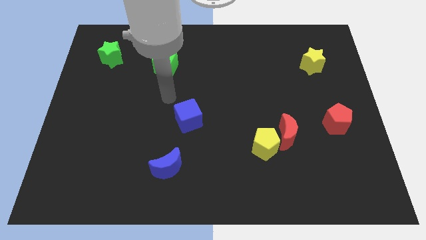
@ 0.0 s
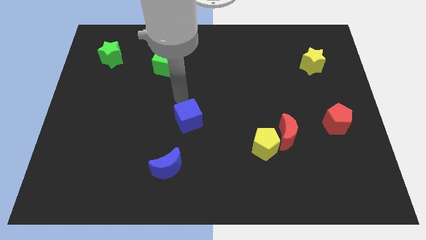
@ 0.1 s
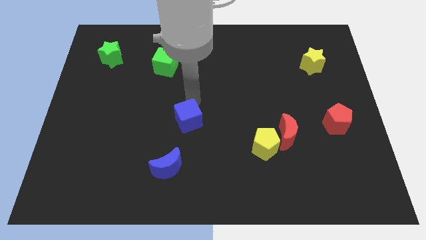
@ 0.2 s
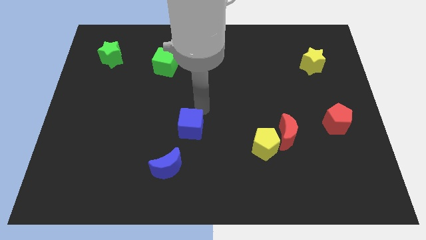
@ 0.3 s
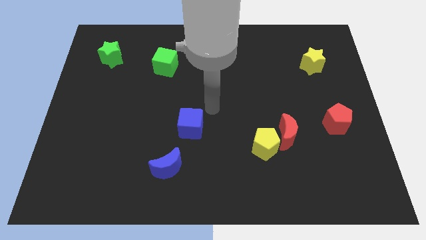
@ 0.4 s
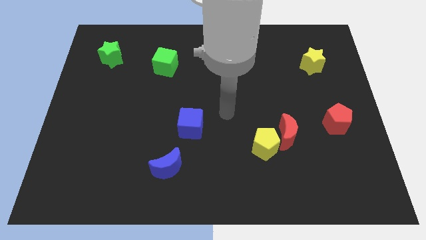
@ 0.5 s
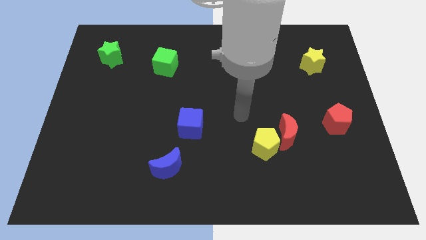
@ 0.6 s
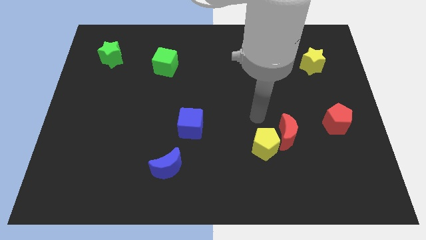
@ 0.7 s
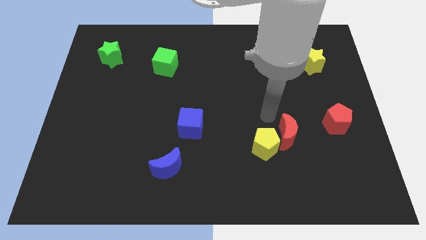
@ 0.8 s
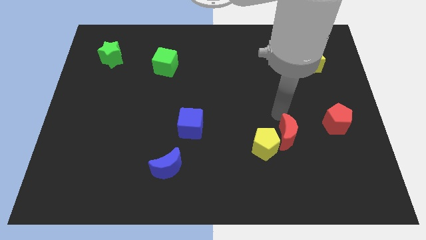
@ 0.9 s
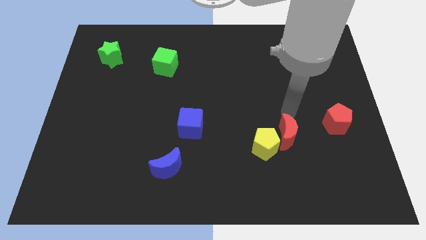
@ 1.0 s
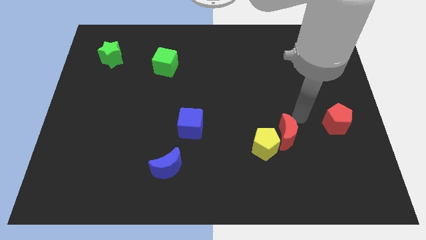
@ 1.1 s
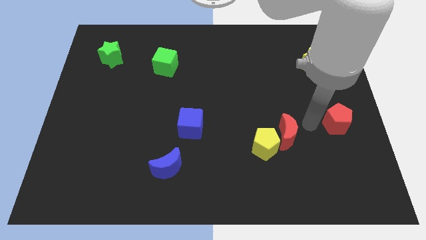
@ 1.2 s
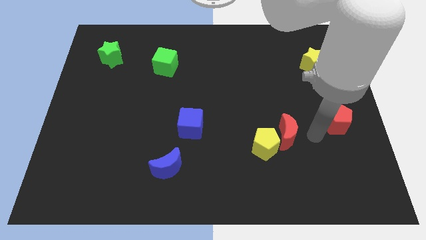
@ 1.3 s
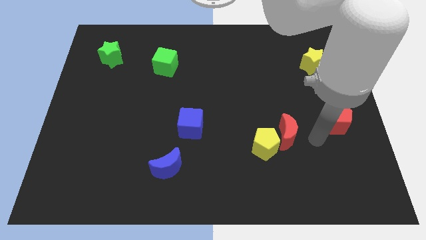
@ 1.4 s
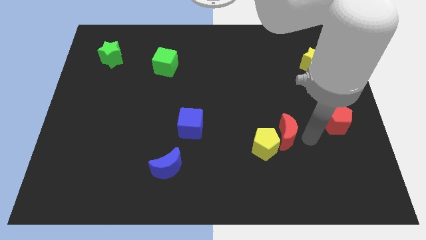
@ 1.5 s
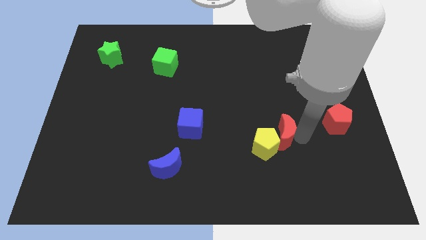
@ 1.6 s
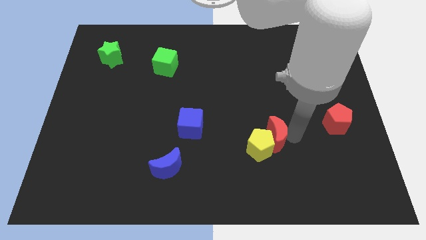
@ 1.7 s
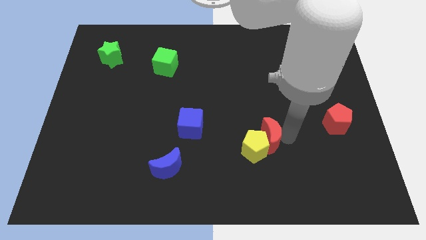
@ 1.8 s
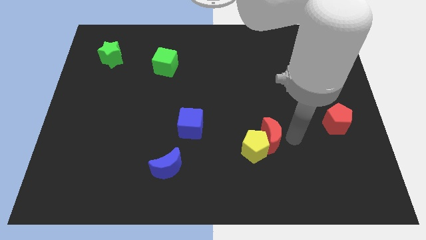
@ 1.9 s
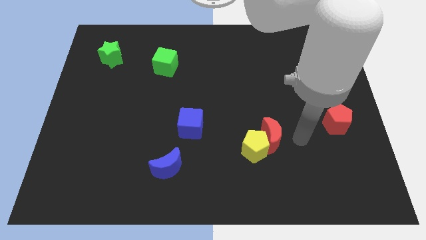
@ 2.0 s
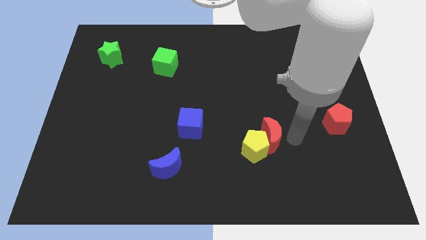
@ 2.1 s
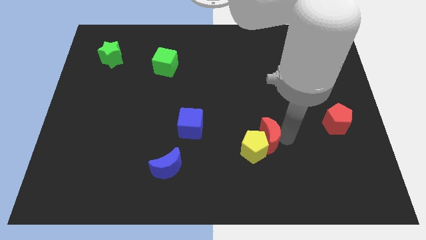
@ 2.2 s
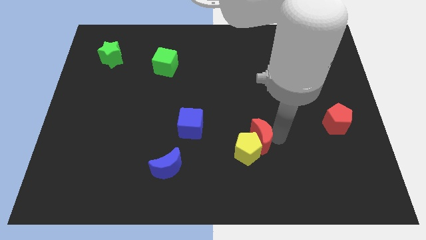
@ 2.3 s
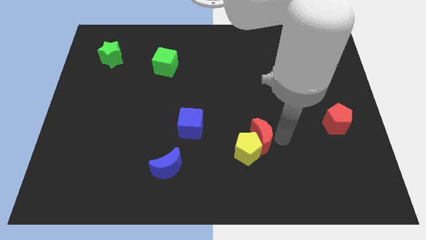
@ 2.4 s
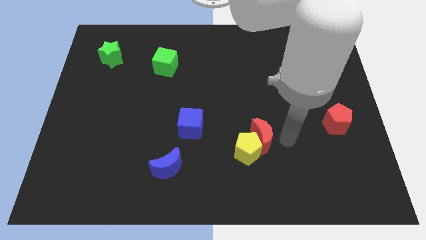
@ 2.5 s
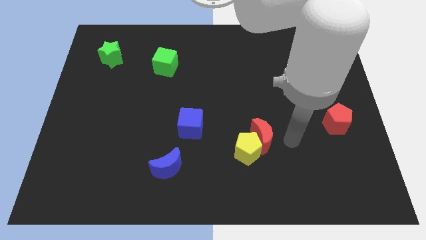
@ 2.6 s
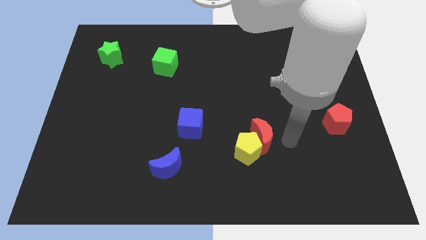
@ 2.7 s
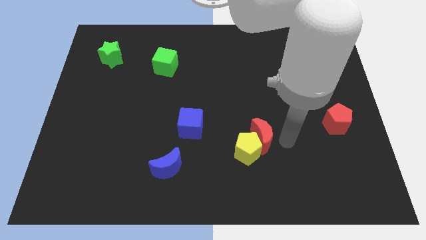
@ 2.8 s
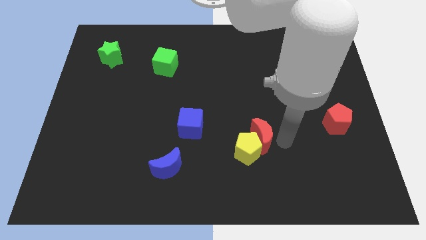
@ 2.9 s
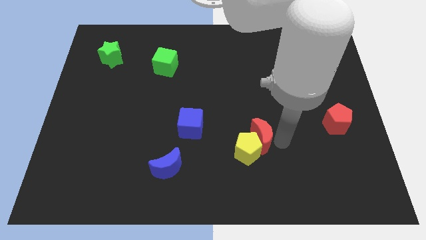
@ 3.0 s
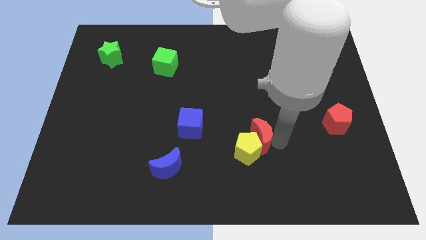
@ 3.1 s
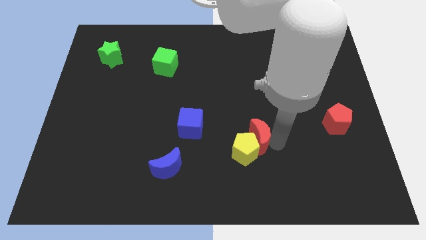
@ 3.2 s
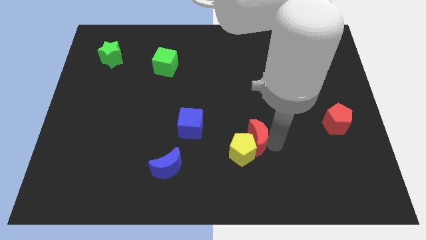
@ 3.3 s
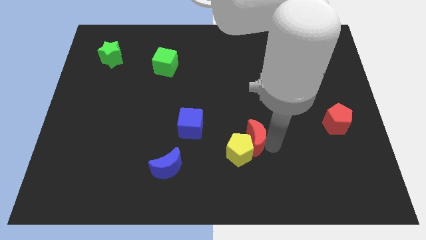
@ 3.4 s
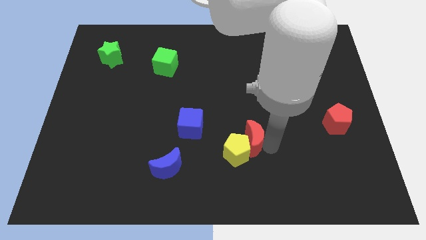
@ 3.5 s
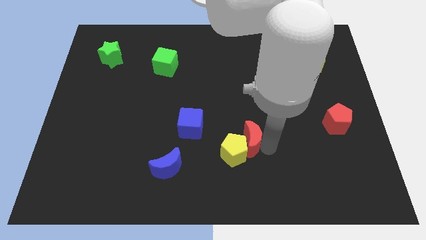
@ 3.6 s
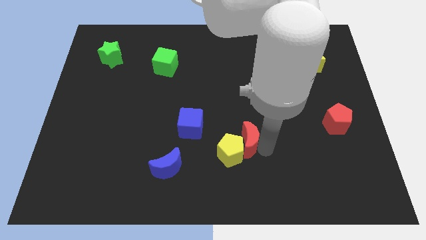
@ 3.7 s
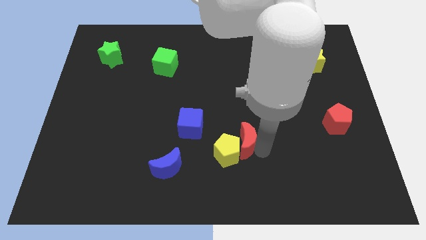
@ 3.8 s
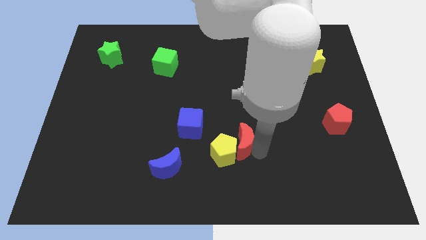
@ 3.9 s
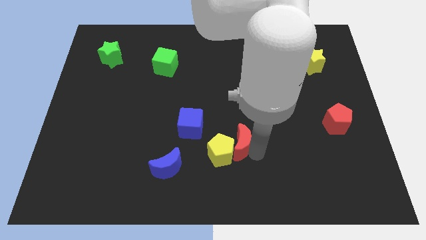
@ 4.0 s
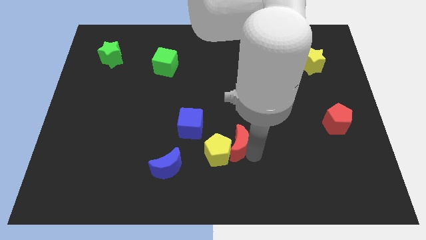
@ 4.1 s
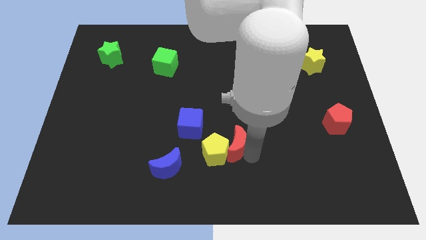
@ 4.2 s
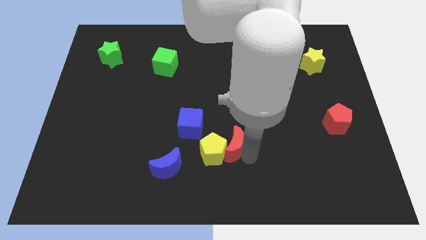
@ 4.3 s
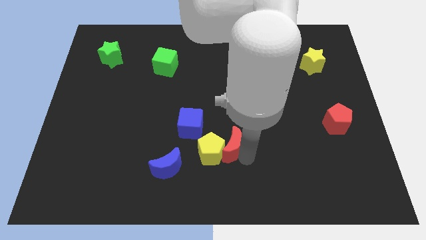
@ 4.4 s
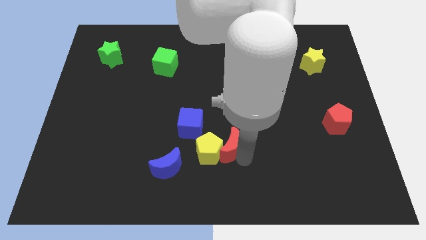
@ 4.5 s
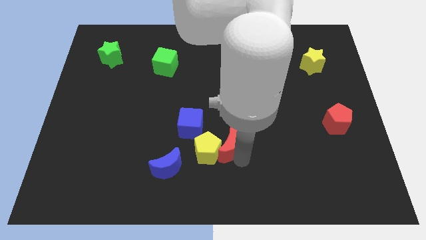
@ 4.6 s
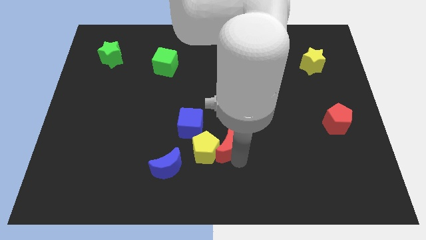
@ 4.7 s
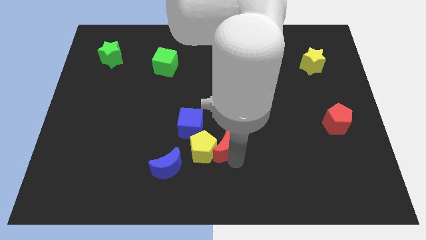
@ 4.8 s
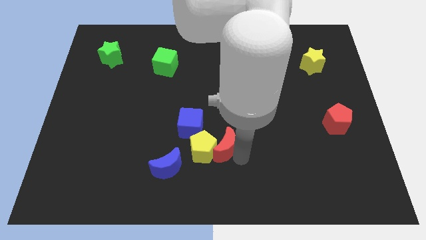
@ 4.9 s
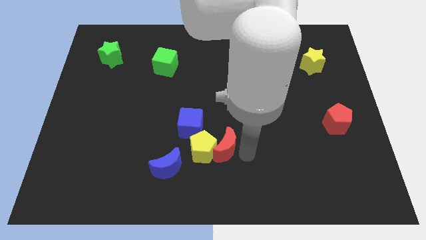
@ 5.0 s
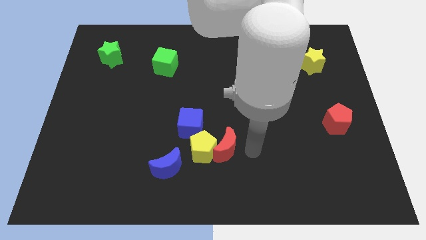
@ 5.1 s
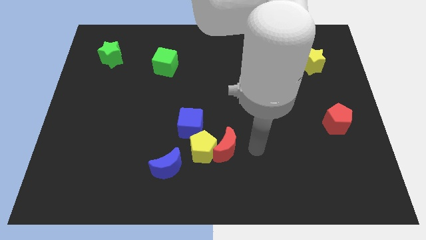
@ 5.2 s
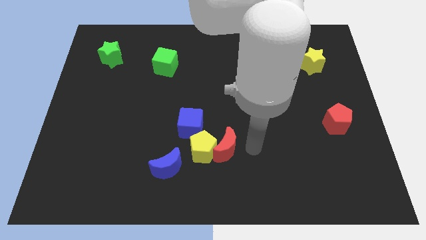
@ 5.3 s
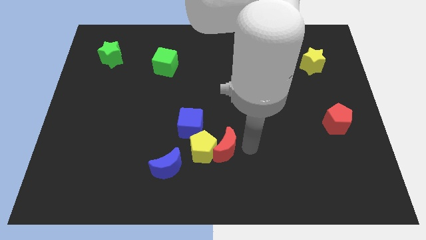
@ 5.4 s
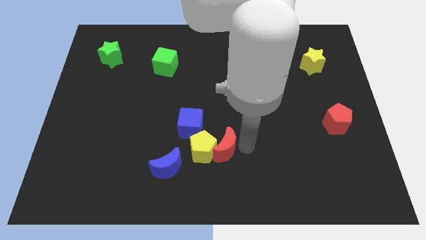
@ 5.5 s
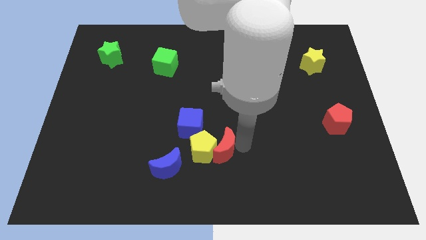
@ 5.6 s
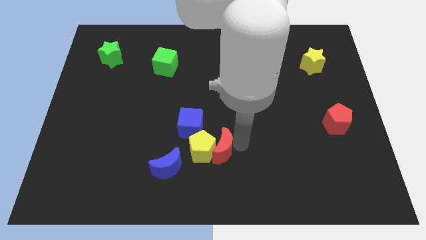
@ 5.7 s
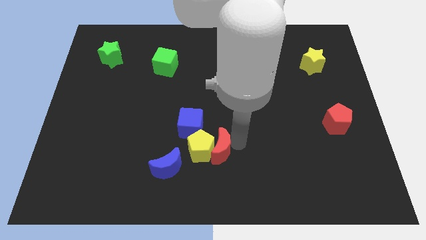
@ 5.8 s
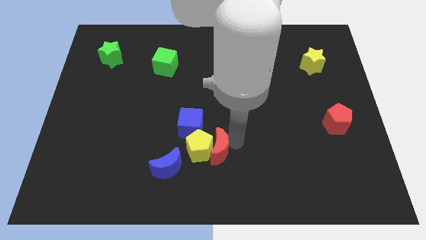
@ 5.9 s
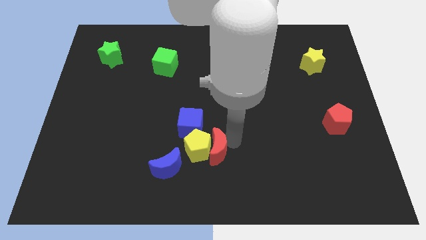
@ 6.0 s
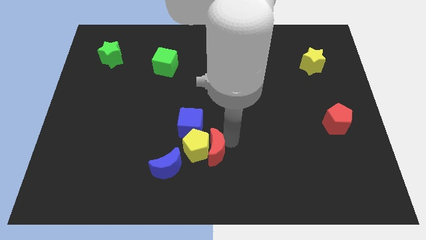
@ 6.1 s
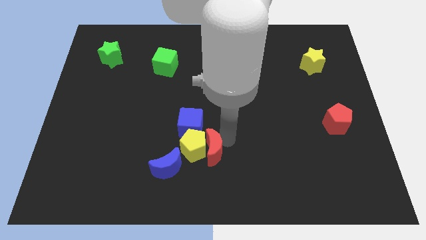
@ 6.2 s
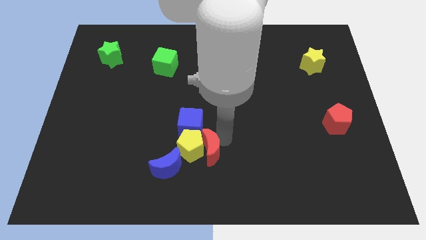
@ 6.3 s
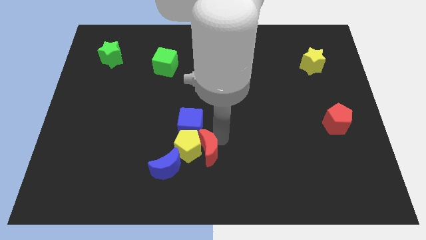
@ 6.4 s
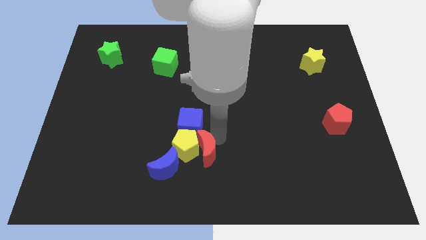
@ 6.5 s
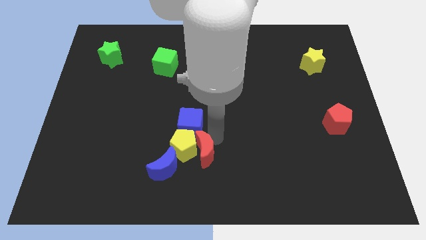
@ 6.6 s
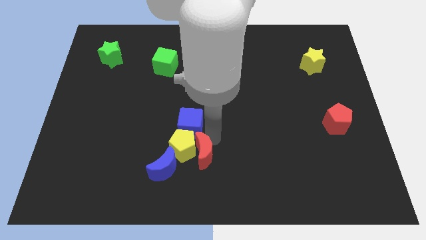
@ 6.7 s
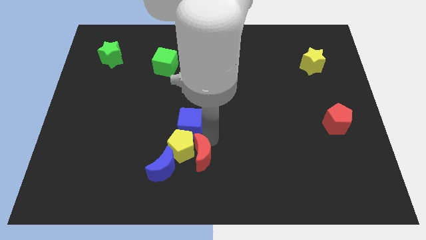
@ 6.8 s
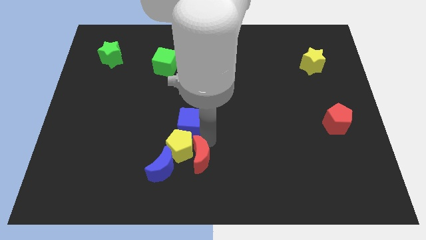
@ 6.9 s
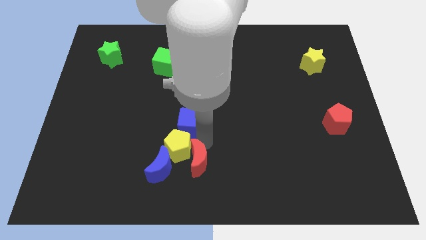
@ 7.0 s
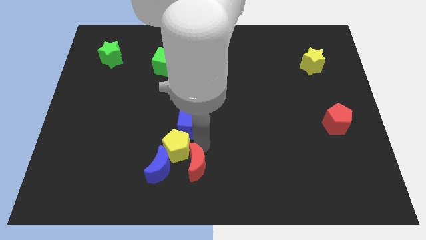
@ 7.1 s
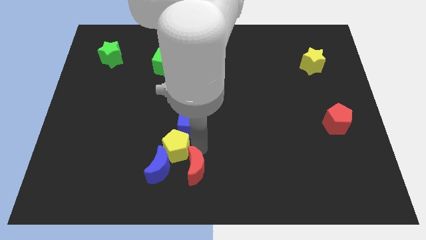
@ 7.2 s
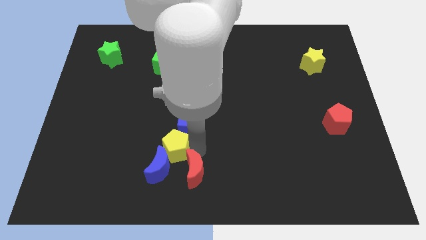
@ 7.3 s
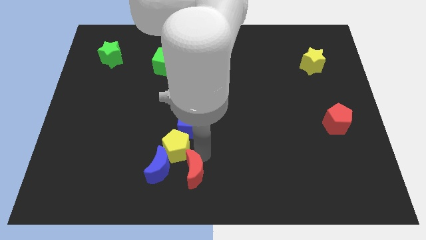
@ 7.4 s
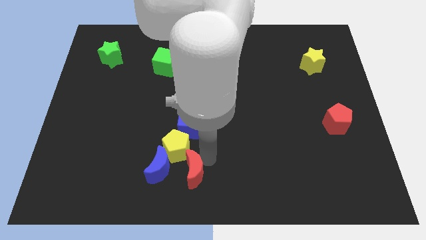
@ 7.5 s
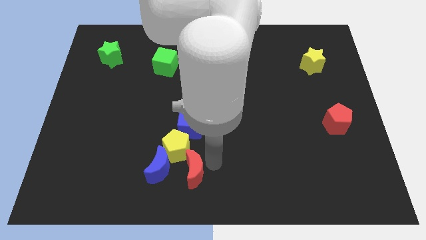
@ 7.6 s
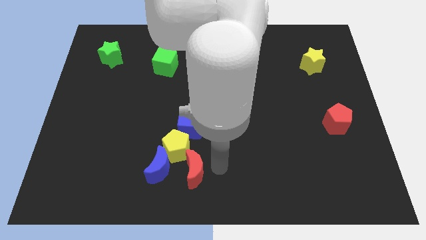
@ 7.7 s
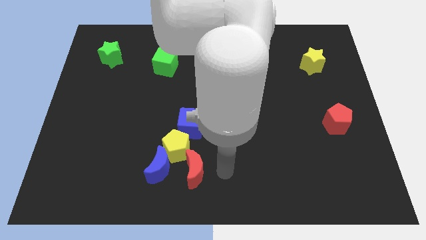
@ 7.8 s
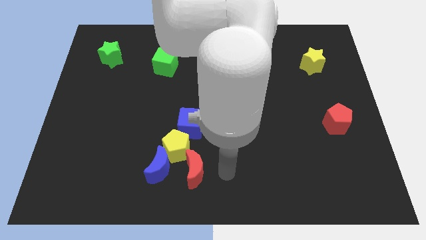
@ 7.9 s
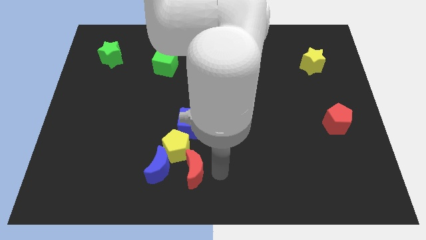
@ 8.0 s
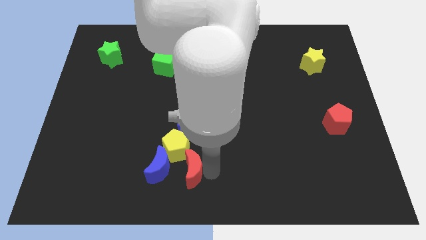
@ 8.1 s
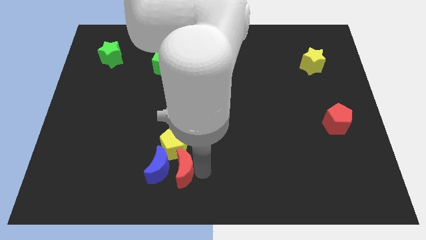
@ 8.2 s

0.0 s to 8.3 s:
move the red moon next to the blue moon
